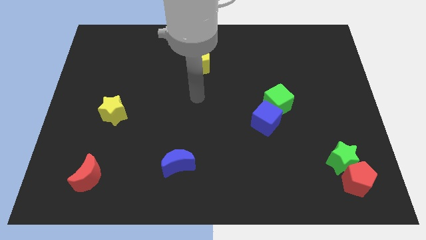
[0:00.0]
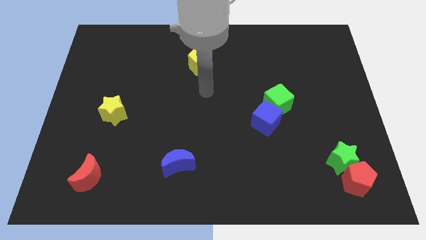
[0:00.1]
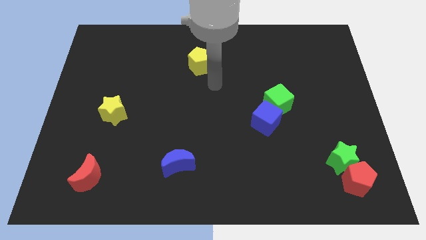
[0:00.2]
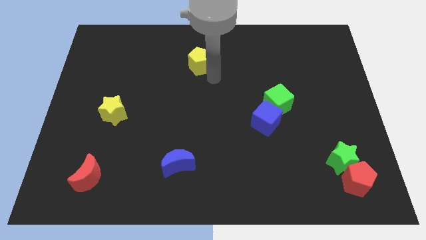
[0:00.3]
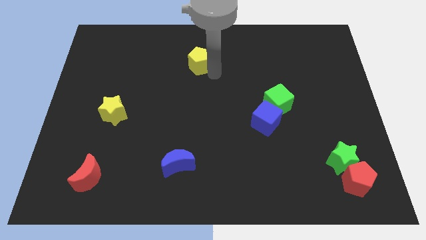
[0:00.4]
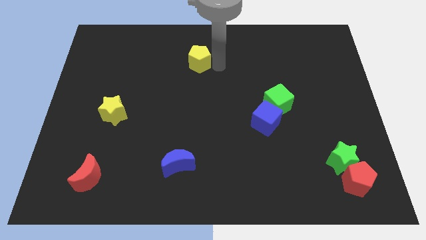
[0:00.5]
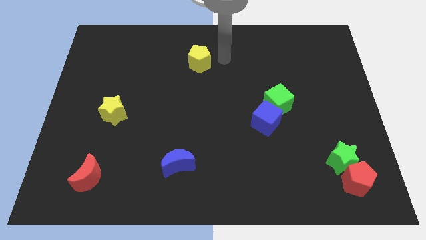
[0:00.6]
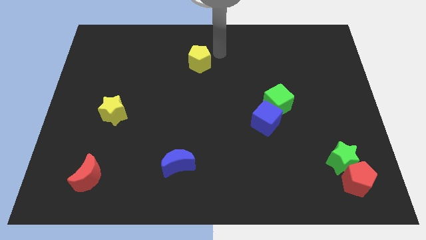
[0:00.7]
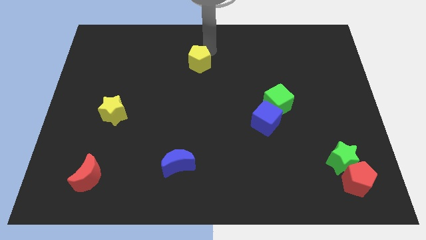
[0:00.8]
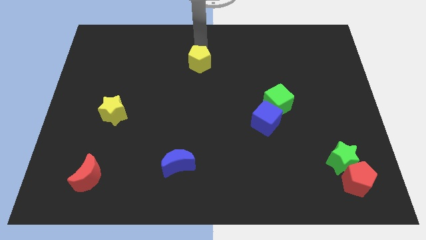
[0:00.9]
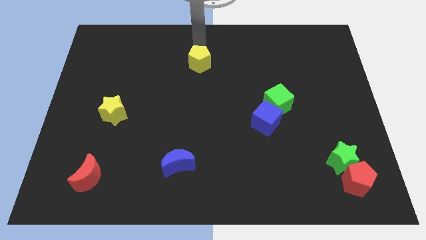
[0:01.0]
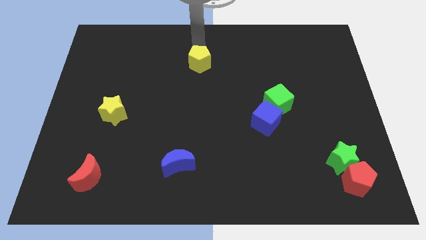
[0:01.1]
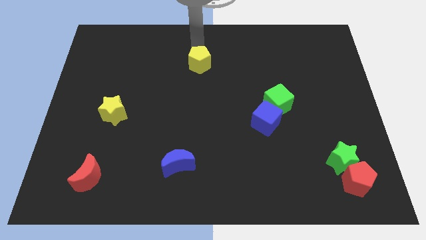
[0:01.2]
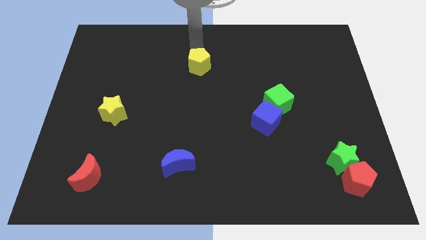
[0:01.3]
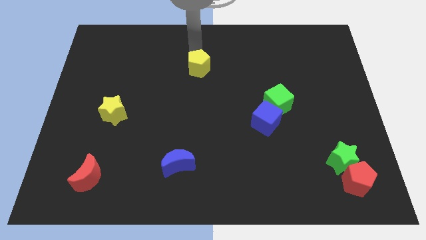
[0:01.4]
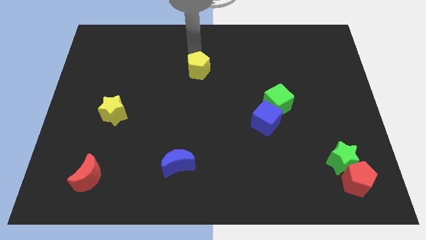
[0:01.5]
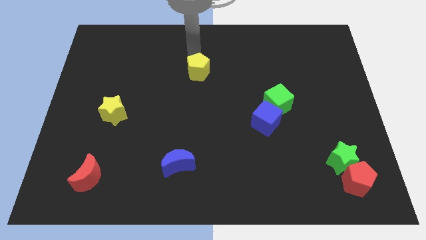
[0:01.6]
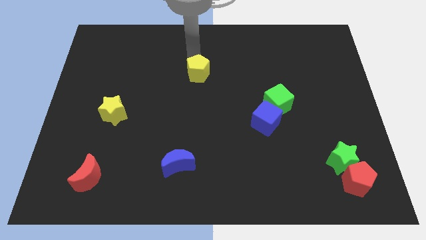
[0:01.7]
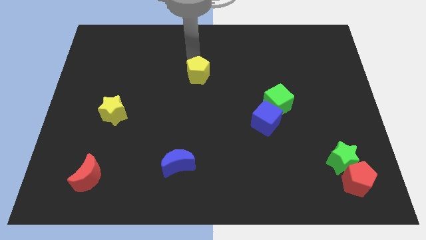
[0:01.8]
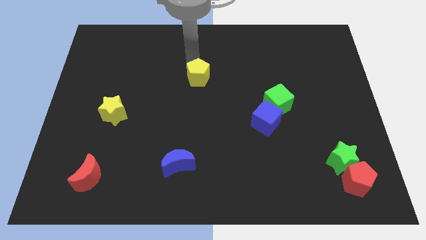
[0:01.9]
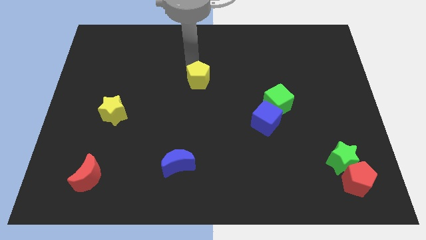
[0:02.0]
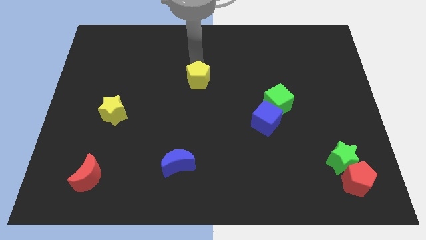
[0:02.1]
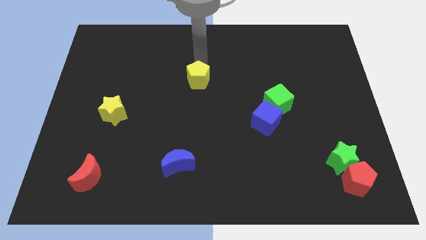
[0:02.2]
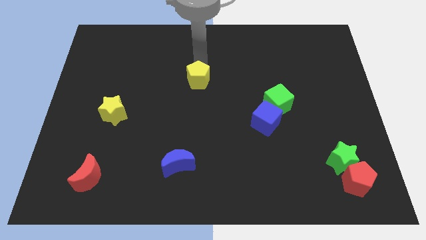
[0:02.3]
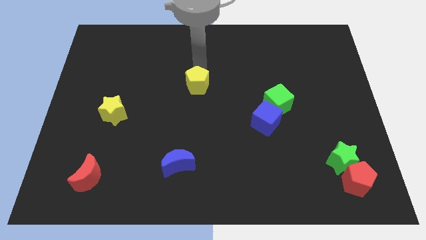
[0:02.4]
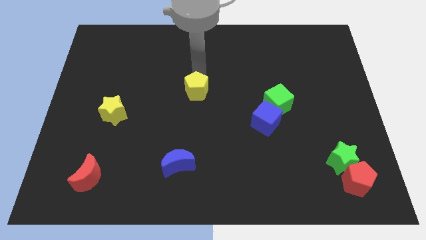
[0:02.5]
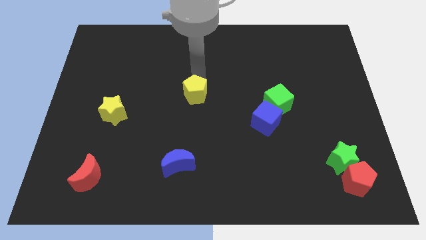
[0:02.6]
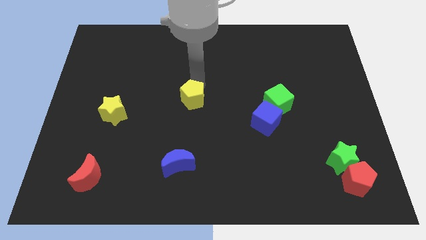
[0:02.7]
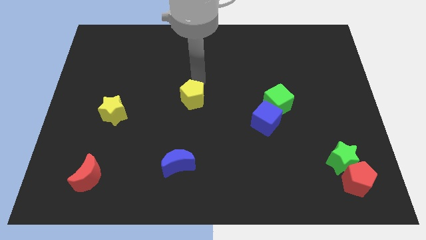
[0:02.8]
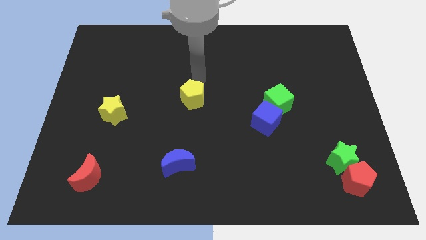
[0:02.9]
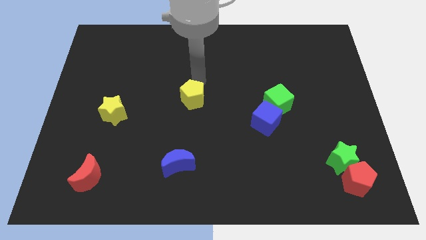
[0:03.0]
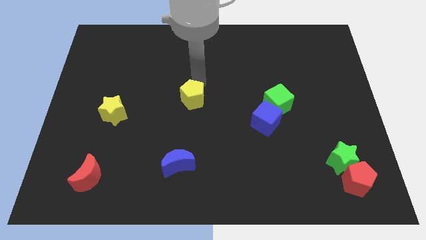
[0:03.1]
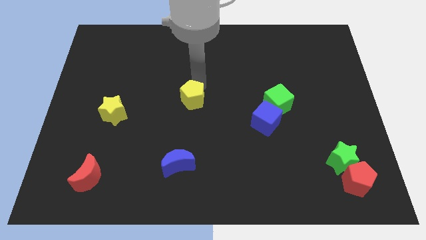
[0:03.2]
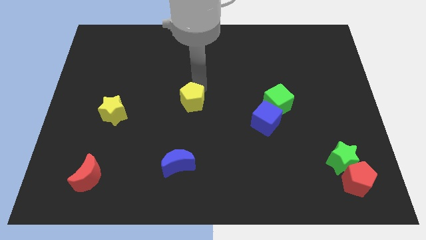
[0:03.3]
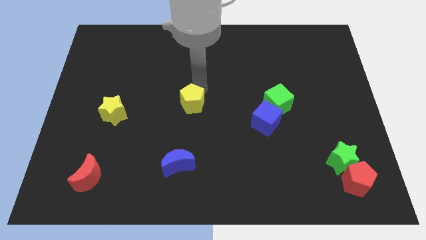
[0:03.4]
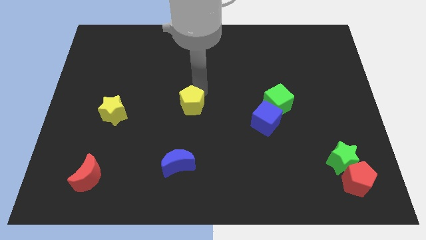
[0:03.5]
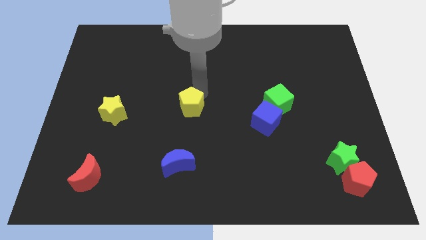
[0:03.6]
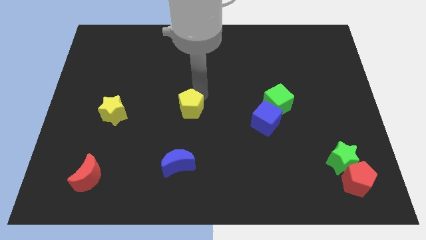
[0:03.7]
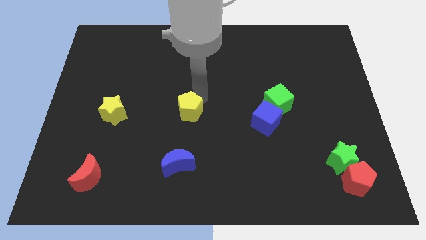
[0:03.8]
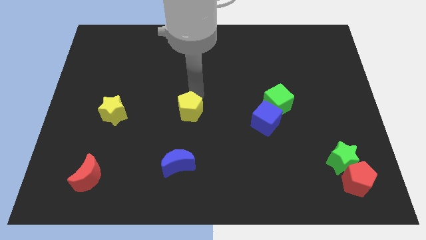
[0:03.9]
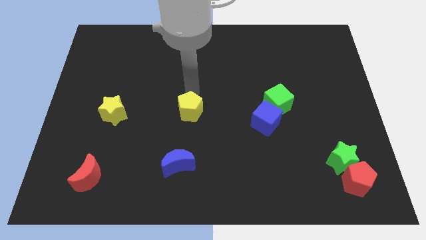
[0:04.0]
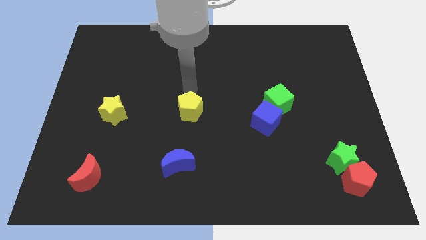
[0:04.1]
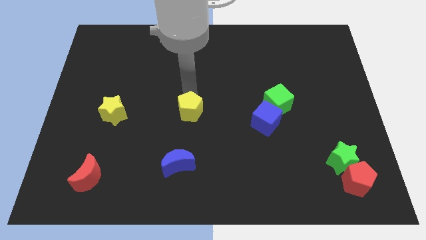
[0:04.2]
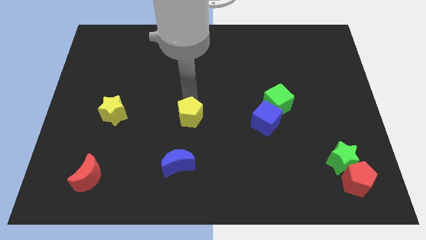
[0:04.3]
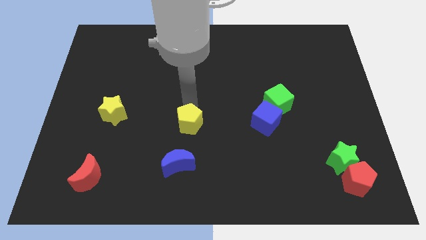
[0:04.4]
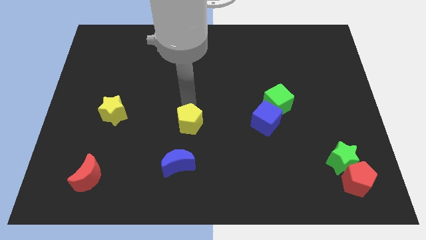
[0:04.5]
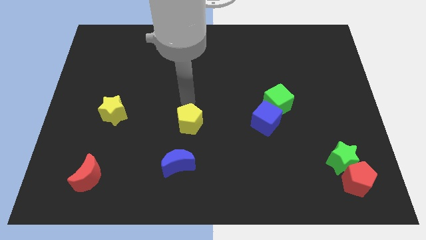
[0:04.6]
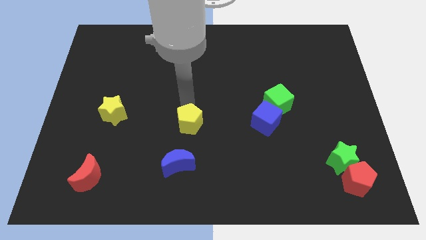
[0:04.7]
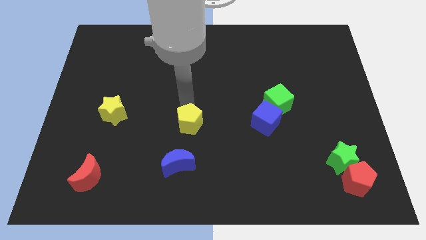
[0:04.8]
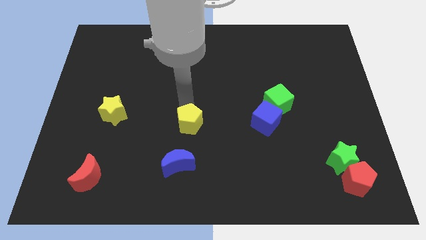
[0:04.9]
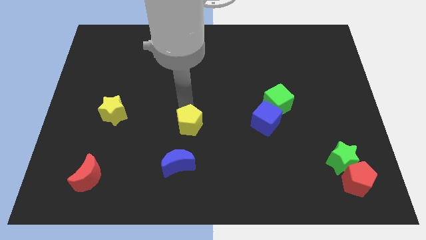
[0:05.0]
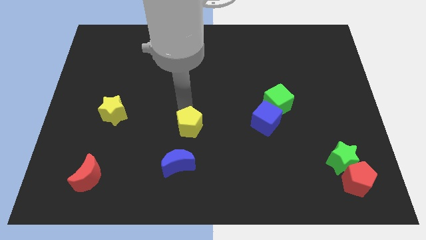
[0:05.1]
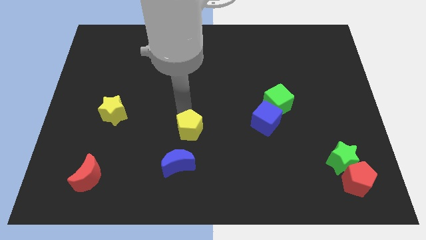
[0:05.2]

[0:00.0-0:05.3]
push the yellow pentagon down

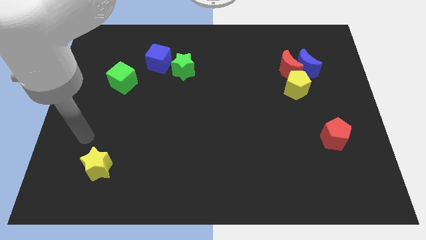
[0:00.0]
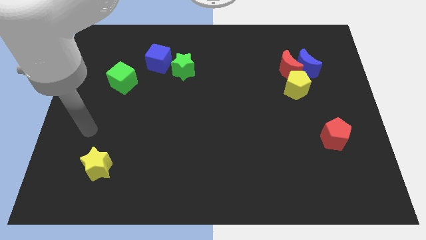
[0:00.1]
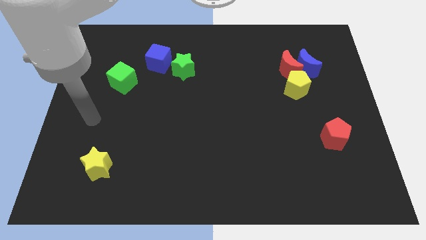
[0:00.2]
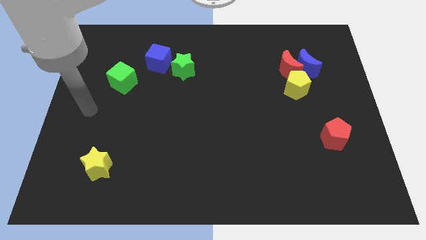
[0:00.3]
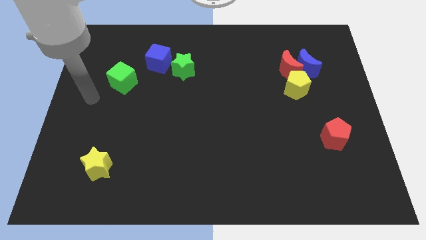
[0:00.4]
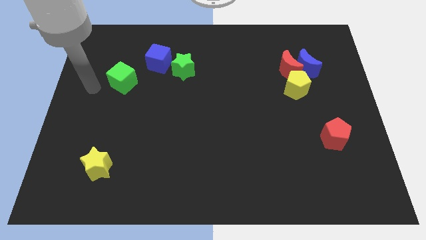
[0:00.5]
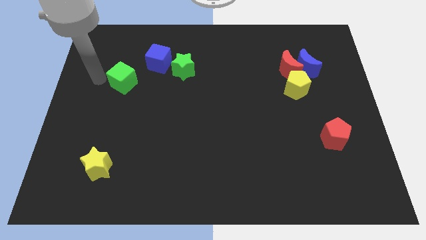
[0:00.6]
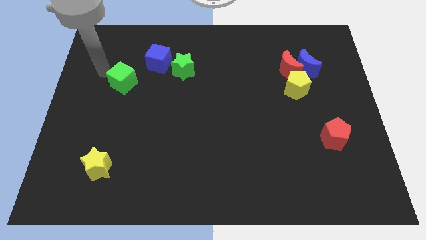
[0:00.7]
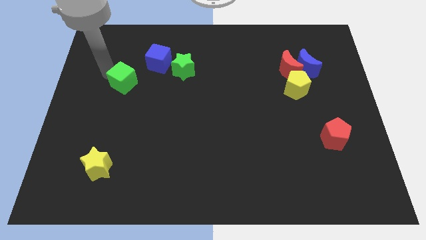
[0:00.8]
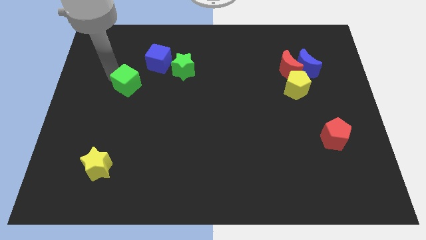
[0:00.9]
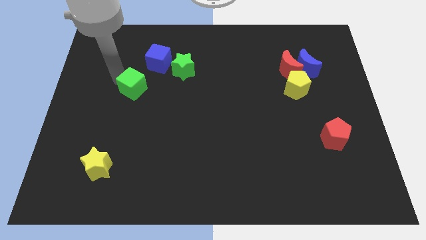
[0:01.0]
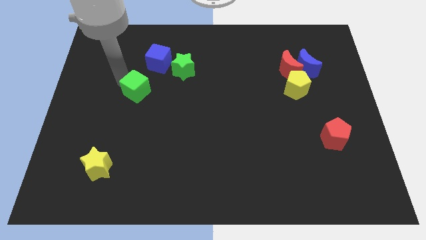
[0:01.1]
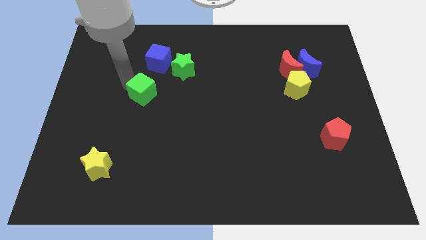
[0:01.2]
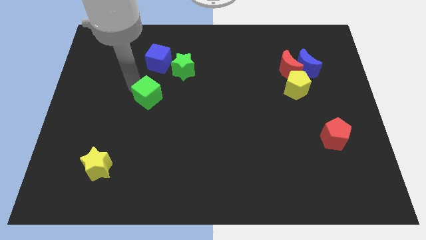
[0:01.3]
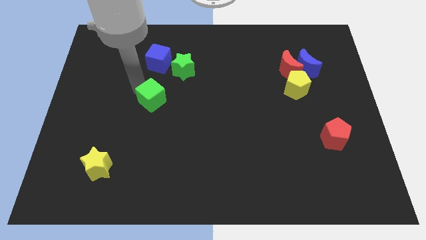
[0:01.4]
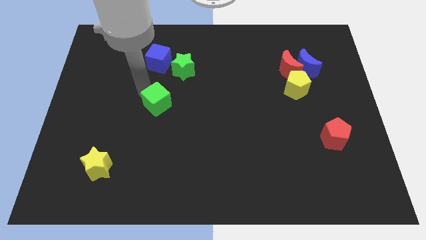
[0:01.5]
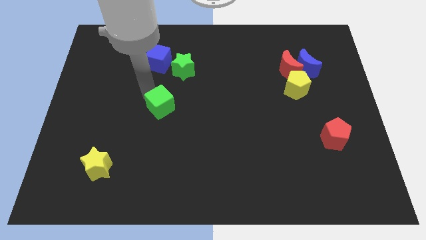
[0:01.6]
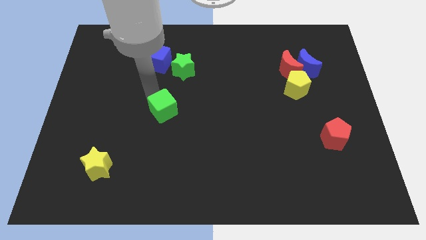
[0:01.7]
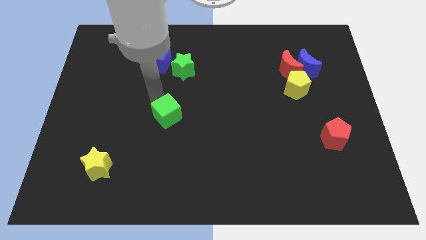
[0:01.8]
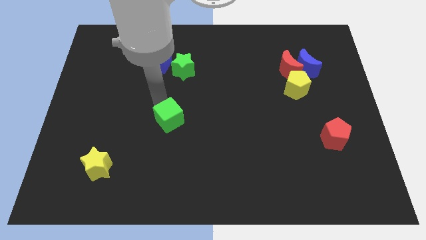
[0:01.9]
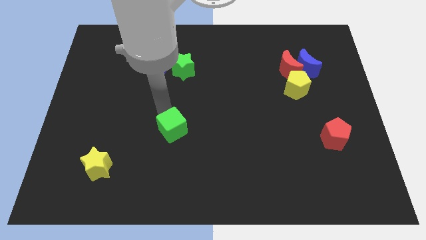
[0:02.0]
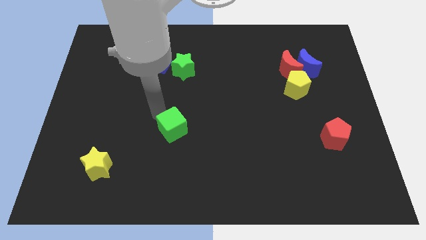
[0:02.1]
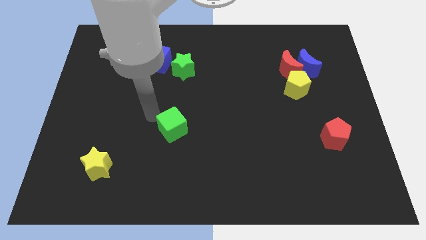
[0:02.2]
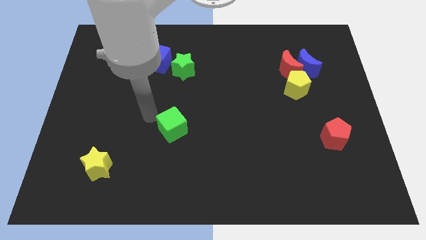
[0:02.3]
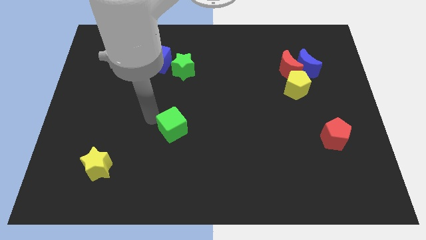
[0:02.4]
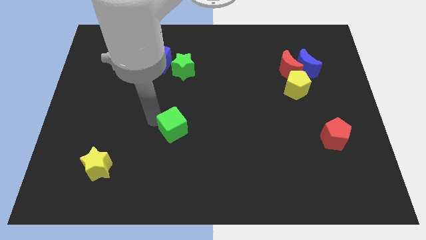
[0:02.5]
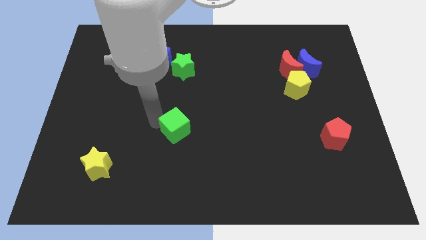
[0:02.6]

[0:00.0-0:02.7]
move the green cube down and to the right
